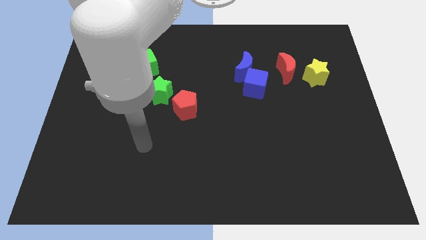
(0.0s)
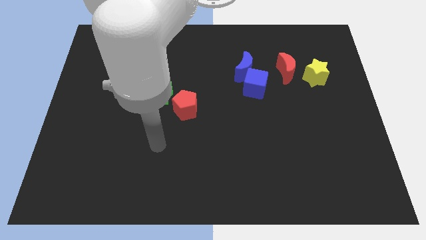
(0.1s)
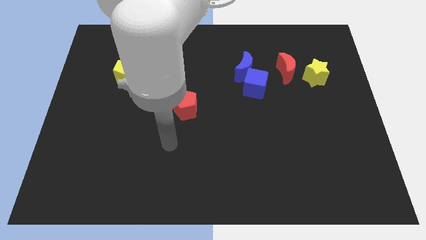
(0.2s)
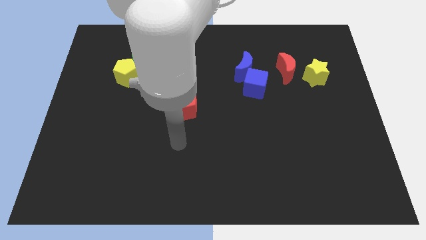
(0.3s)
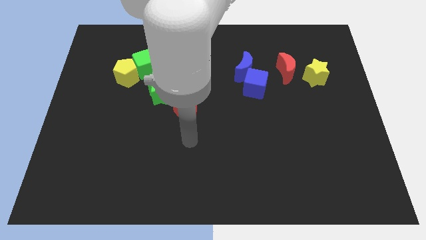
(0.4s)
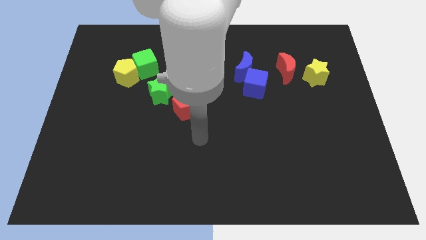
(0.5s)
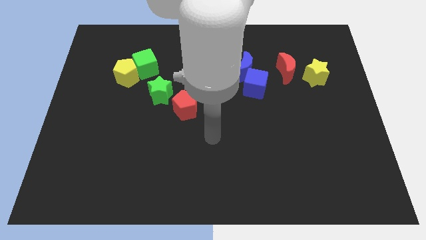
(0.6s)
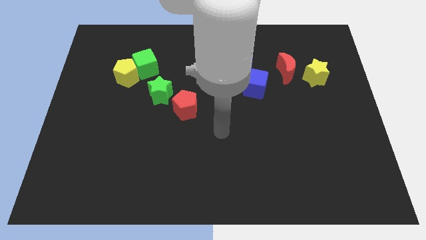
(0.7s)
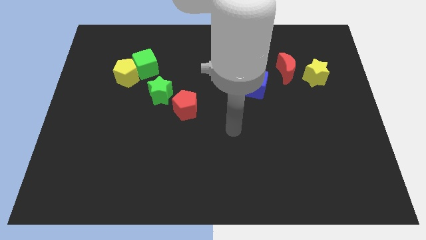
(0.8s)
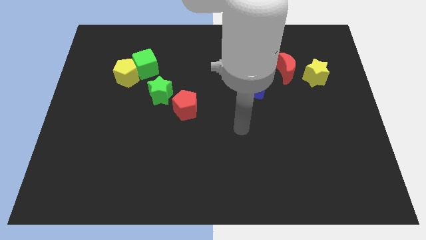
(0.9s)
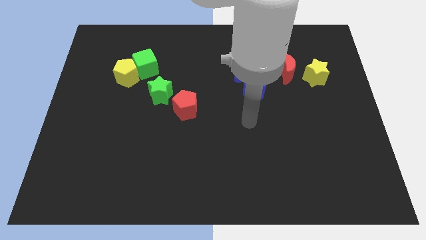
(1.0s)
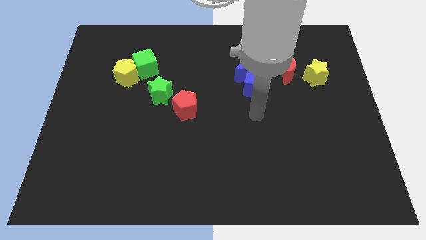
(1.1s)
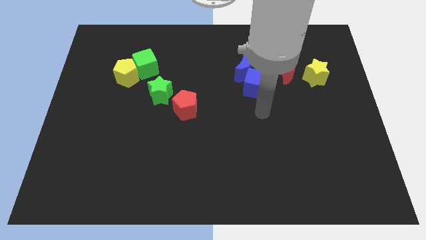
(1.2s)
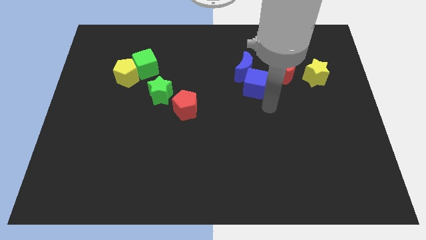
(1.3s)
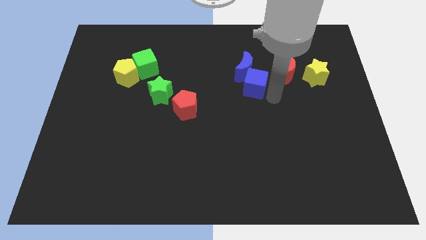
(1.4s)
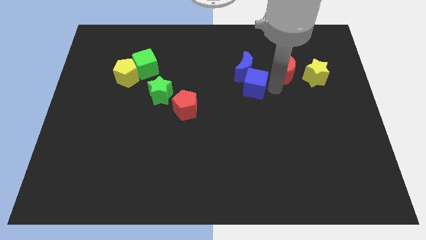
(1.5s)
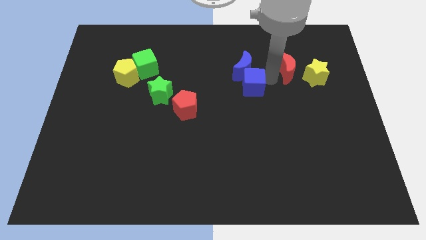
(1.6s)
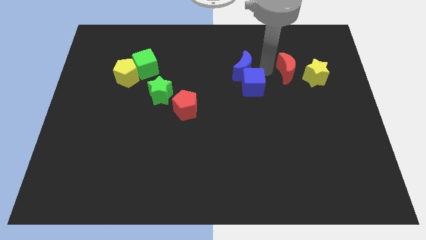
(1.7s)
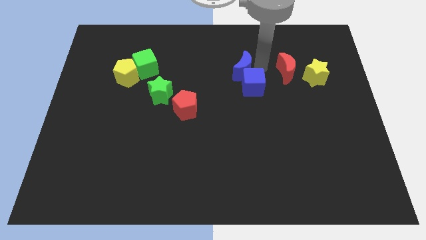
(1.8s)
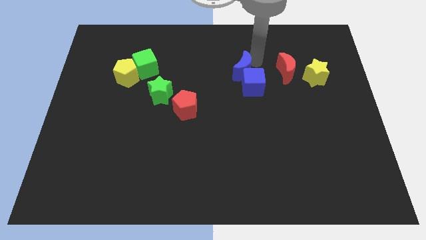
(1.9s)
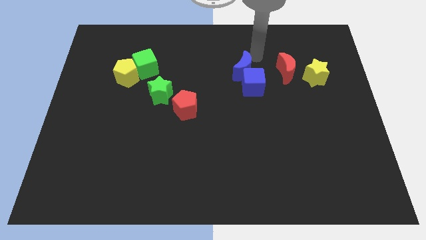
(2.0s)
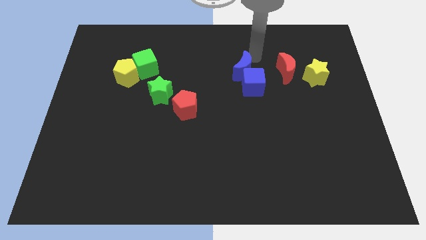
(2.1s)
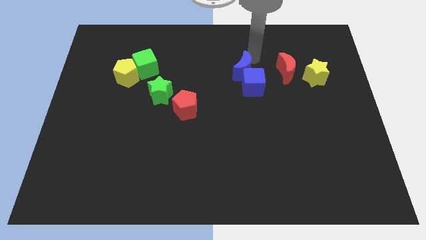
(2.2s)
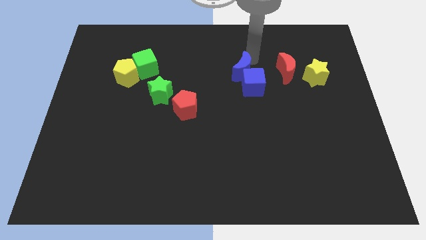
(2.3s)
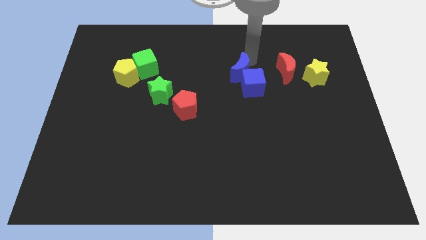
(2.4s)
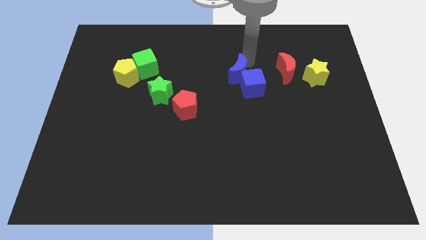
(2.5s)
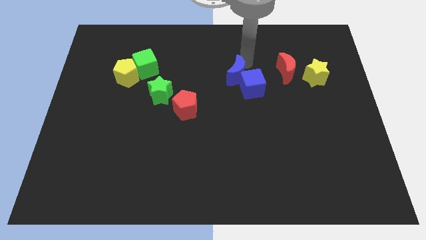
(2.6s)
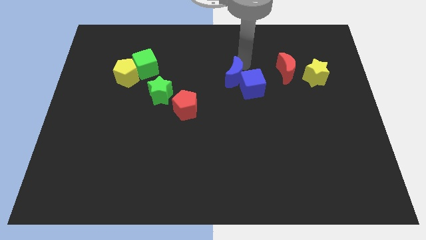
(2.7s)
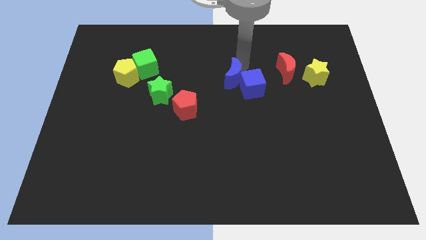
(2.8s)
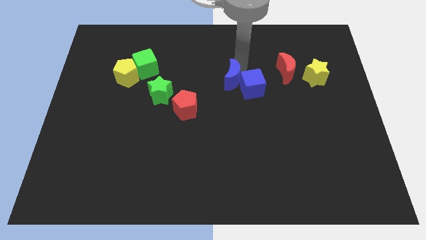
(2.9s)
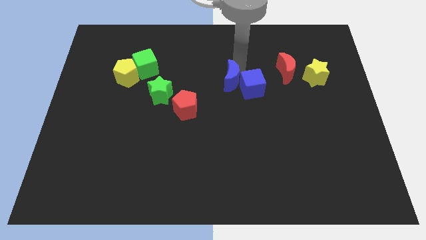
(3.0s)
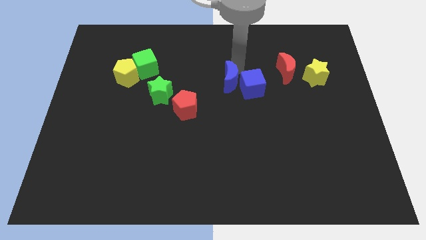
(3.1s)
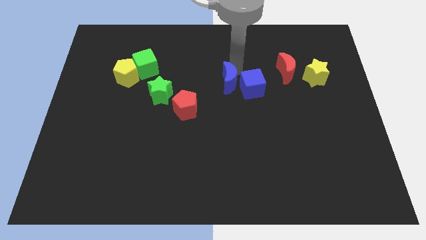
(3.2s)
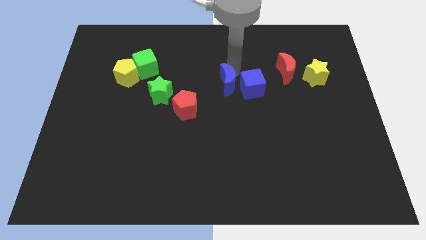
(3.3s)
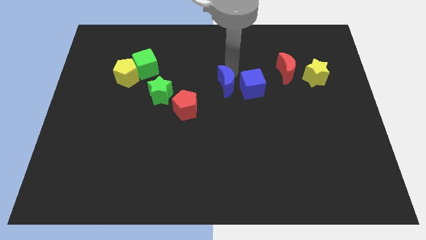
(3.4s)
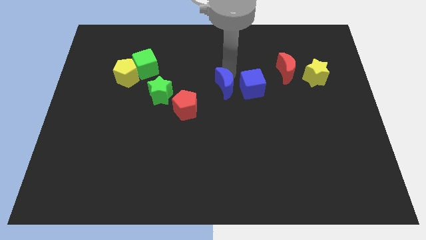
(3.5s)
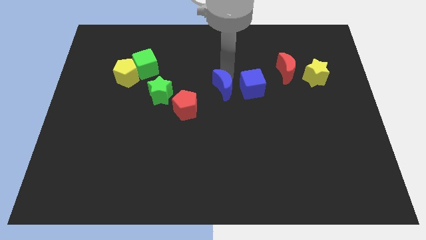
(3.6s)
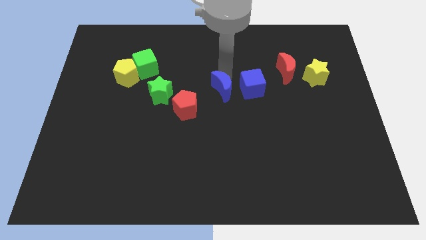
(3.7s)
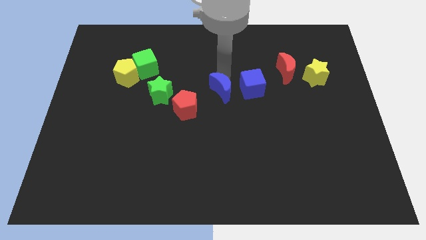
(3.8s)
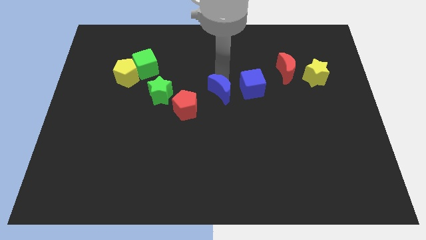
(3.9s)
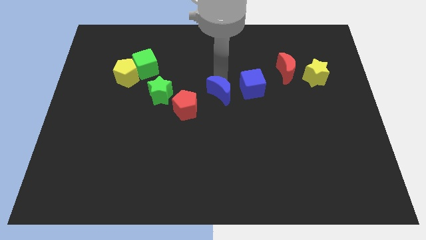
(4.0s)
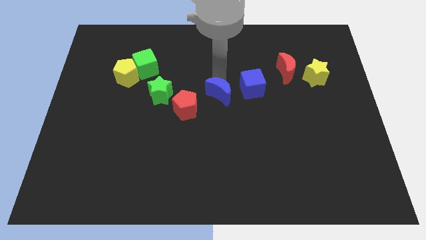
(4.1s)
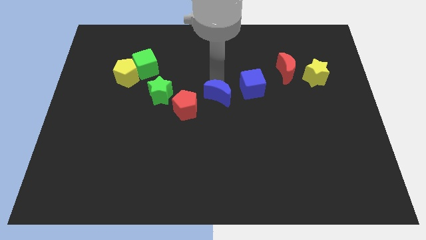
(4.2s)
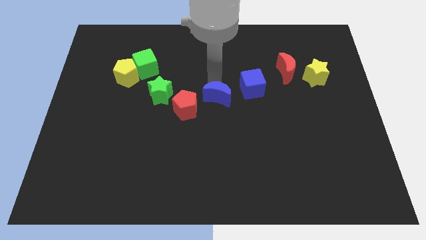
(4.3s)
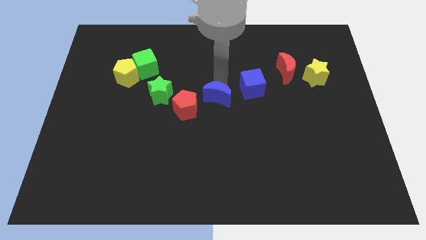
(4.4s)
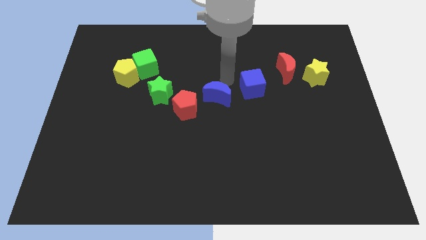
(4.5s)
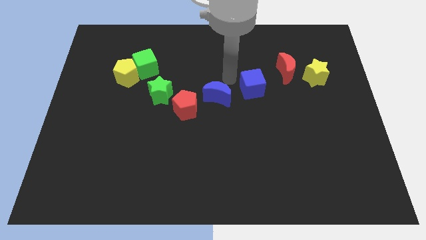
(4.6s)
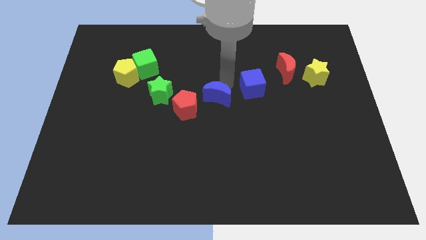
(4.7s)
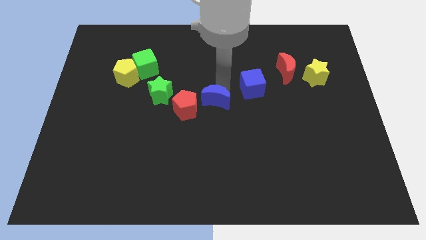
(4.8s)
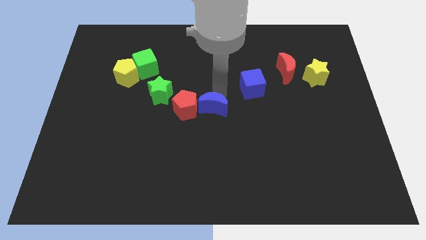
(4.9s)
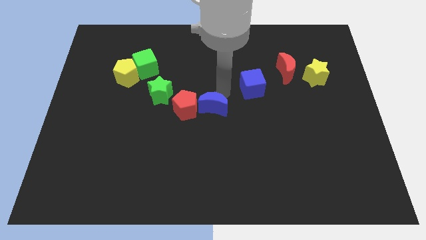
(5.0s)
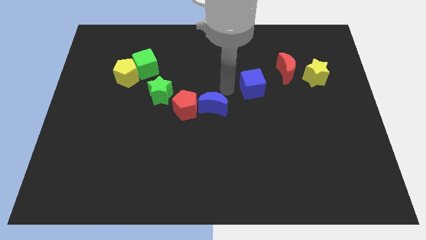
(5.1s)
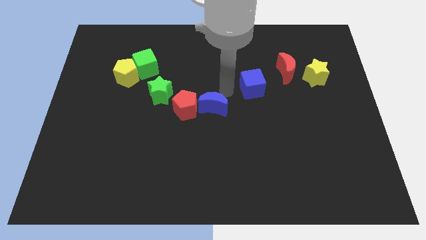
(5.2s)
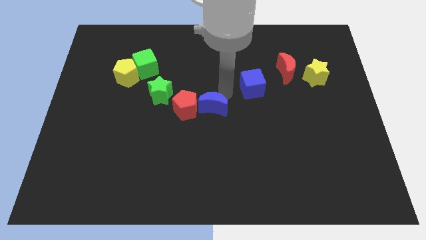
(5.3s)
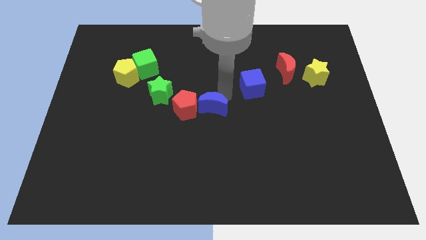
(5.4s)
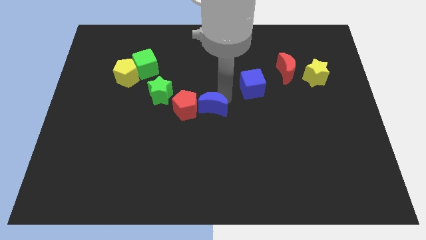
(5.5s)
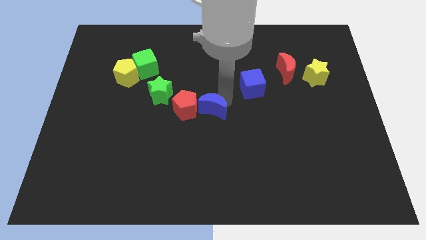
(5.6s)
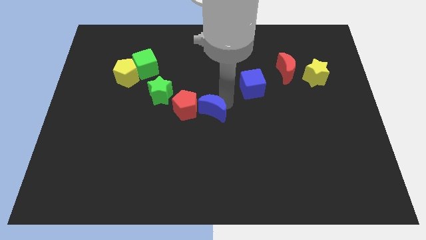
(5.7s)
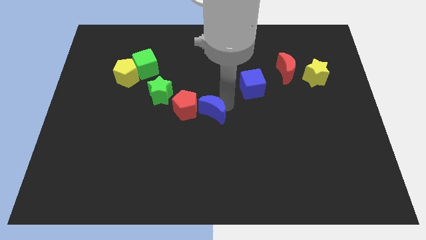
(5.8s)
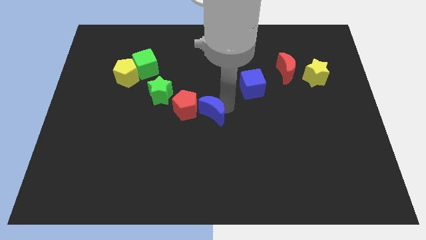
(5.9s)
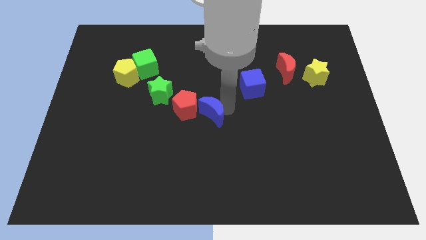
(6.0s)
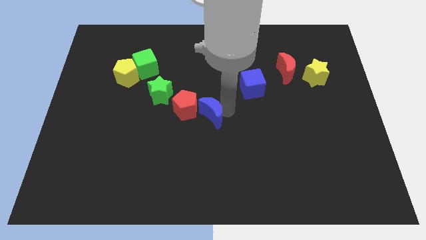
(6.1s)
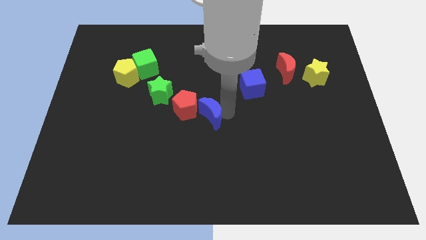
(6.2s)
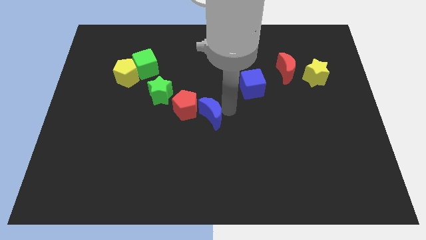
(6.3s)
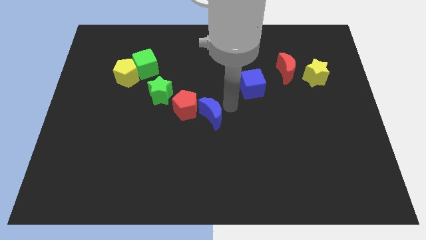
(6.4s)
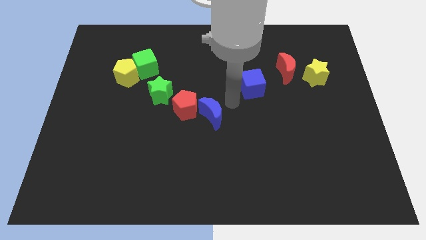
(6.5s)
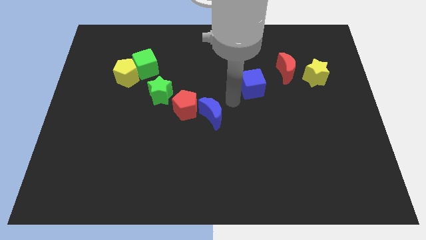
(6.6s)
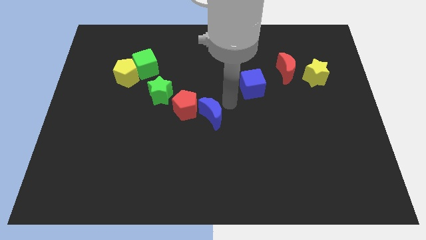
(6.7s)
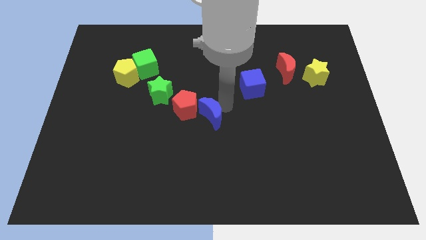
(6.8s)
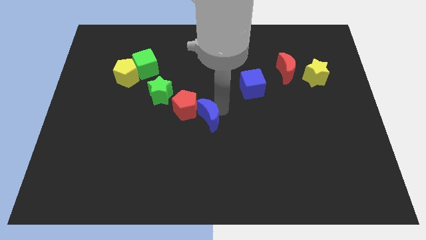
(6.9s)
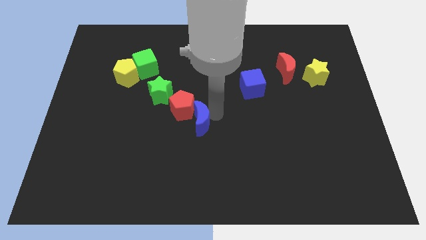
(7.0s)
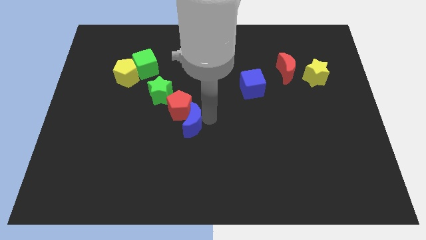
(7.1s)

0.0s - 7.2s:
push the blue moon diagonally downwards and to the left

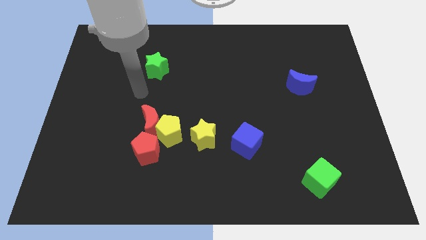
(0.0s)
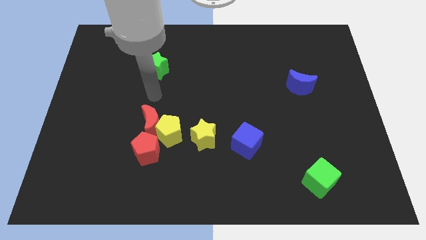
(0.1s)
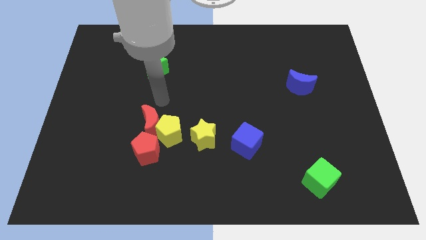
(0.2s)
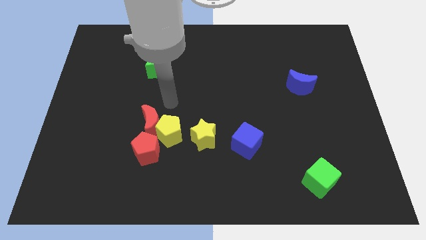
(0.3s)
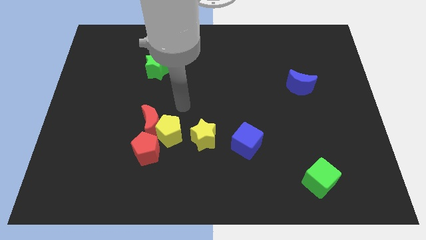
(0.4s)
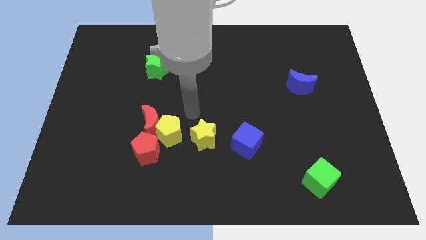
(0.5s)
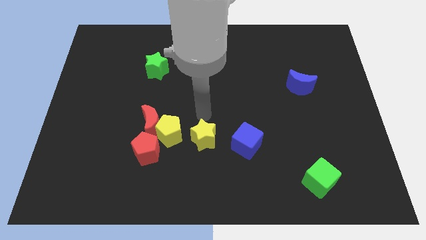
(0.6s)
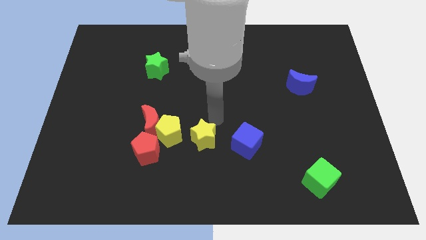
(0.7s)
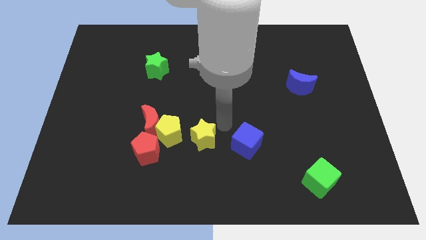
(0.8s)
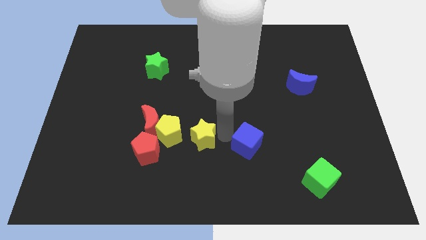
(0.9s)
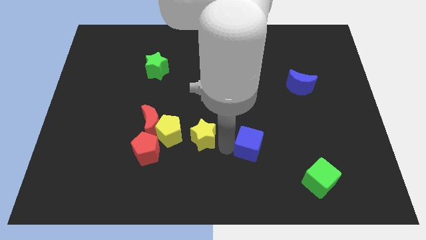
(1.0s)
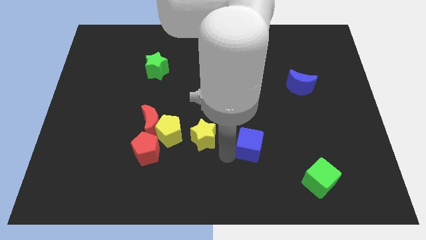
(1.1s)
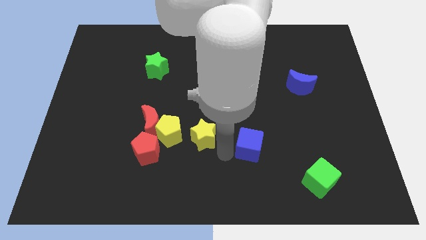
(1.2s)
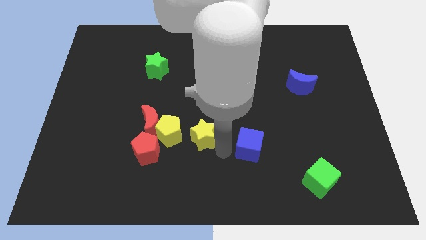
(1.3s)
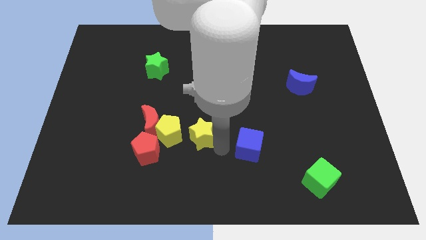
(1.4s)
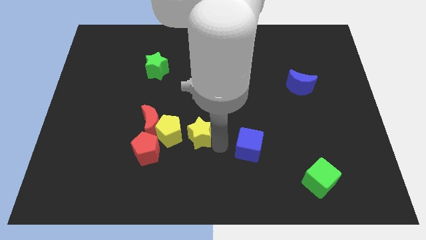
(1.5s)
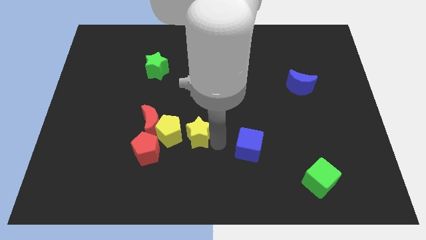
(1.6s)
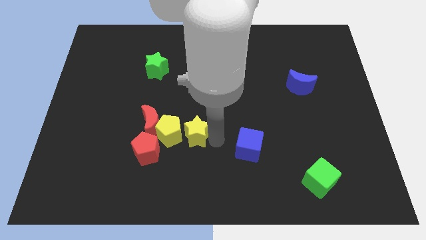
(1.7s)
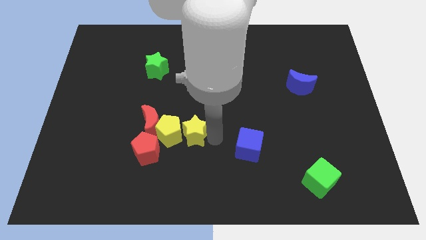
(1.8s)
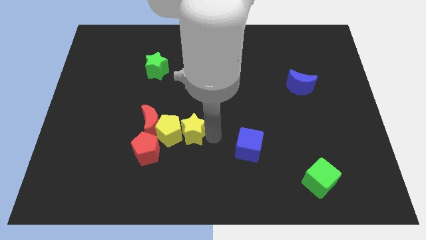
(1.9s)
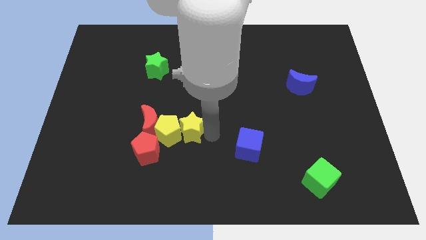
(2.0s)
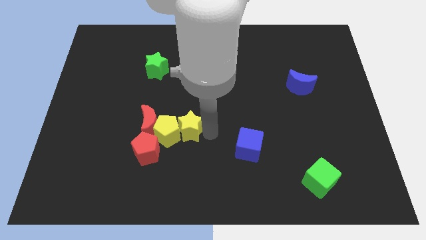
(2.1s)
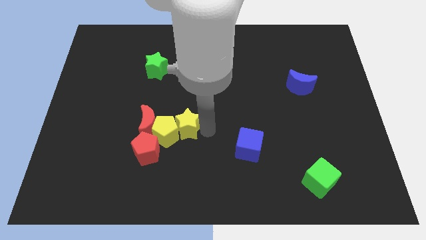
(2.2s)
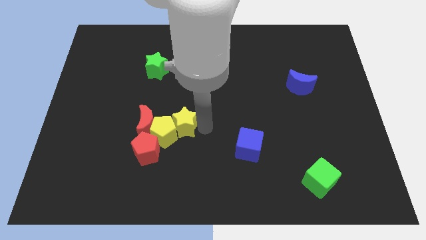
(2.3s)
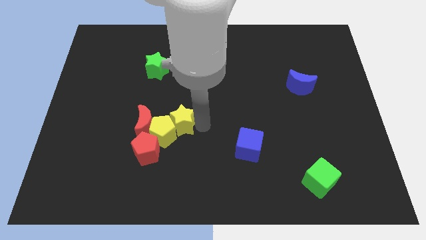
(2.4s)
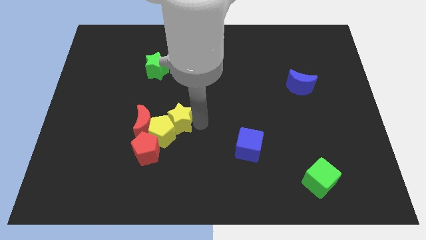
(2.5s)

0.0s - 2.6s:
move the yellow star somewhat upwards and left diagonally
